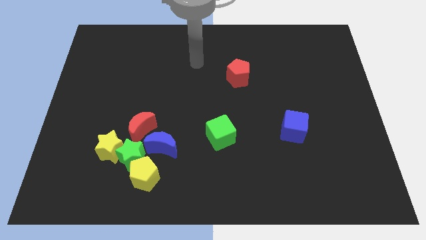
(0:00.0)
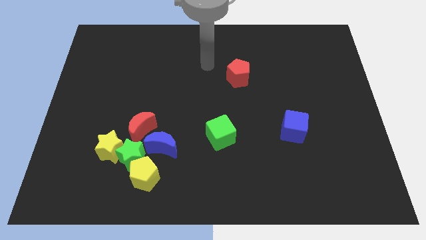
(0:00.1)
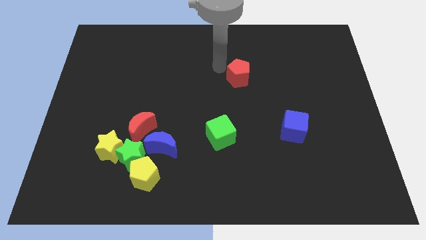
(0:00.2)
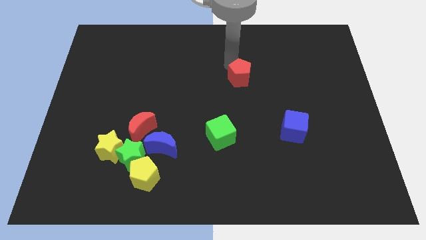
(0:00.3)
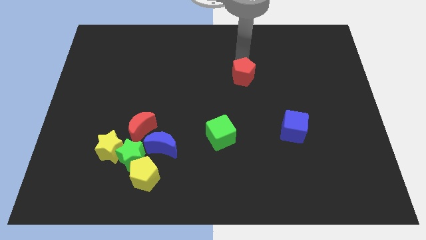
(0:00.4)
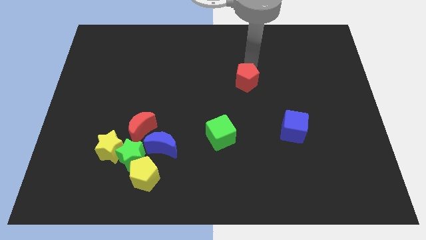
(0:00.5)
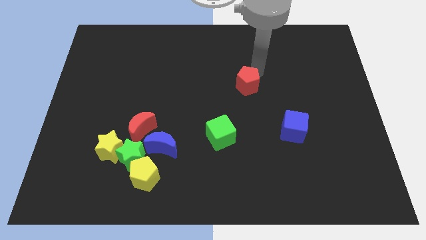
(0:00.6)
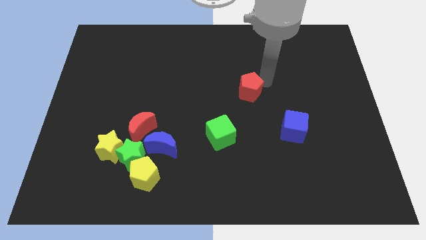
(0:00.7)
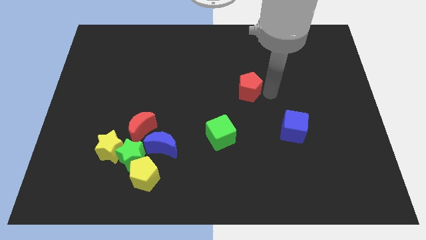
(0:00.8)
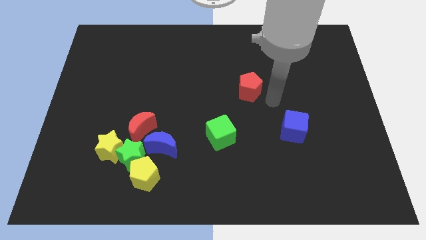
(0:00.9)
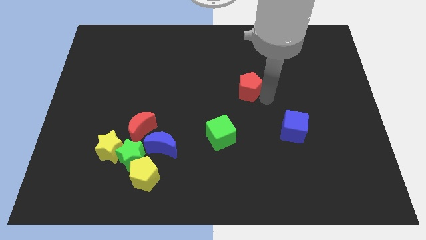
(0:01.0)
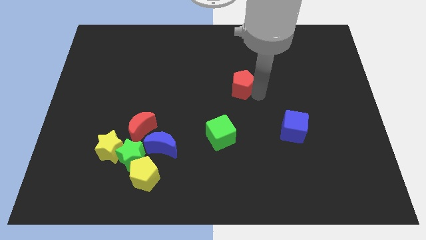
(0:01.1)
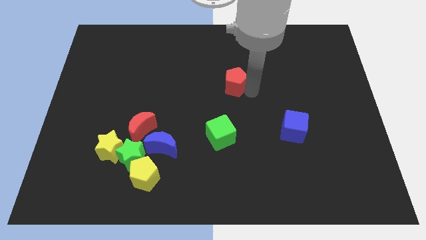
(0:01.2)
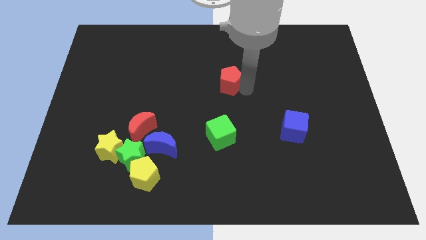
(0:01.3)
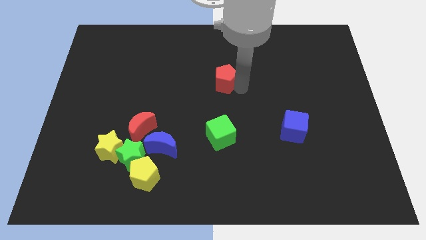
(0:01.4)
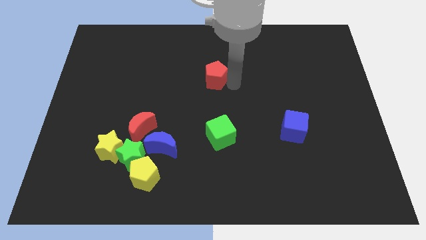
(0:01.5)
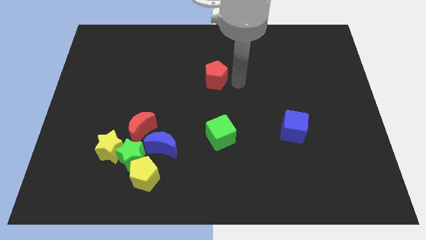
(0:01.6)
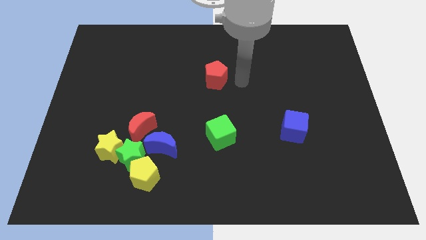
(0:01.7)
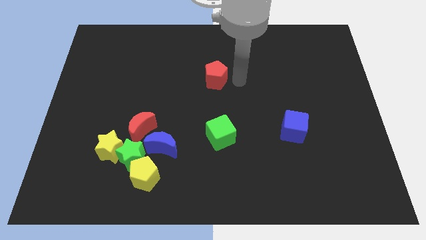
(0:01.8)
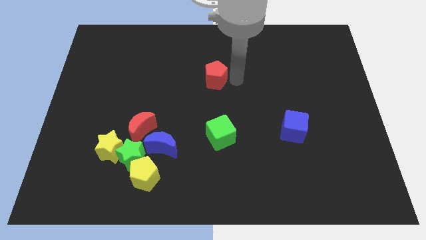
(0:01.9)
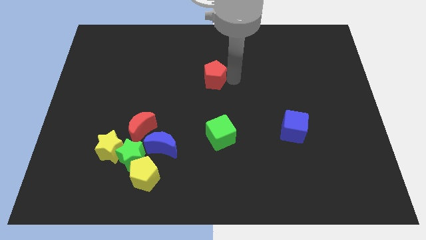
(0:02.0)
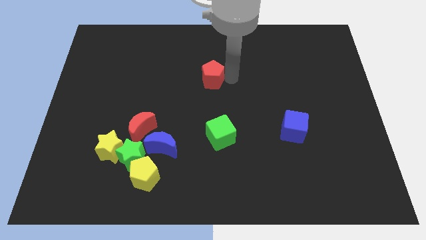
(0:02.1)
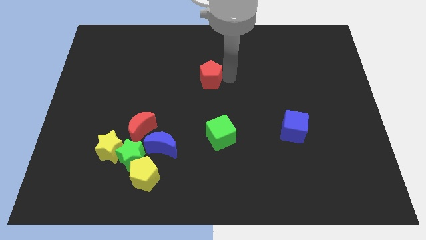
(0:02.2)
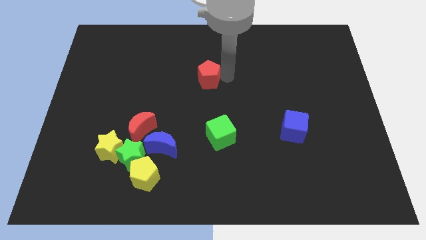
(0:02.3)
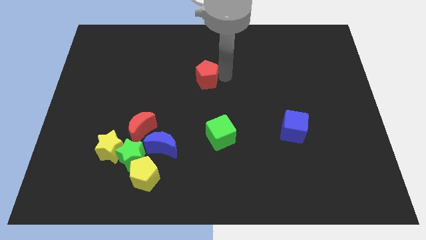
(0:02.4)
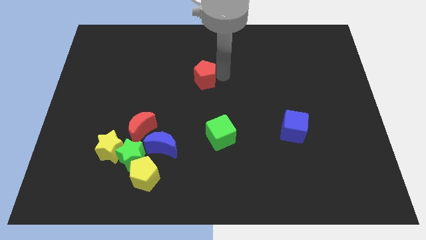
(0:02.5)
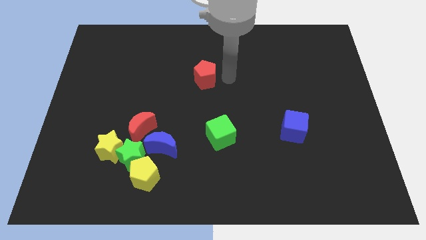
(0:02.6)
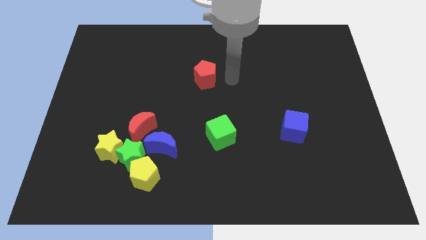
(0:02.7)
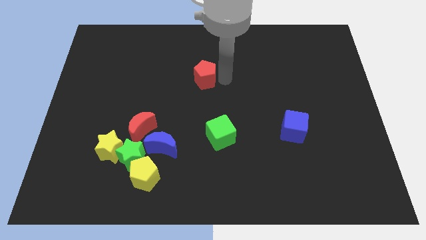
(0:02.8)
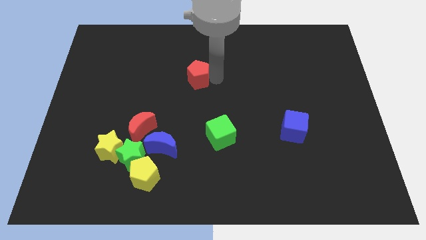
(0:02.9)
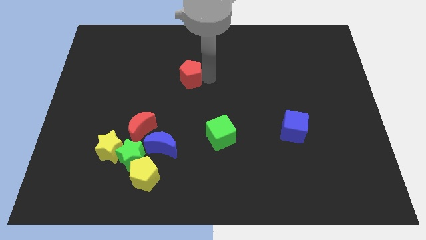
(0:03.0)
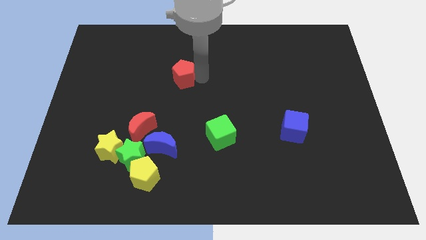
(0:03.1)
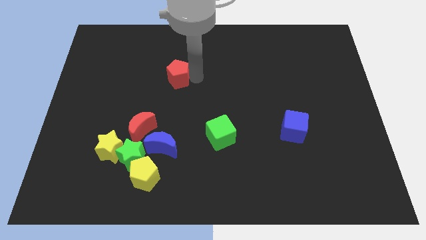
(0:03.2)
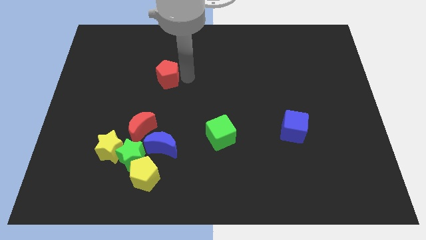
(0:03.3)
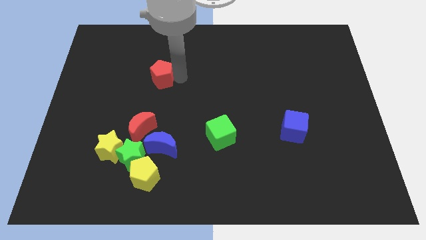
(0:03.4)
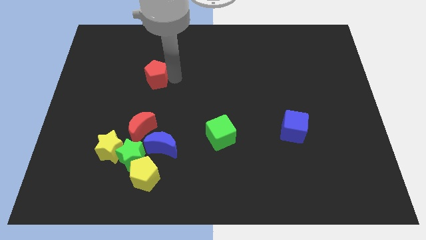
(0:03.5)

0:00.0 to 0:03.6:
slide the red pentagon left

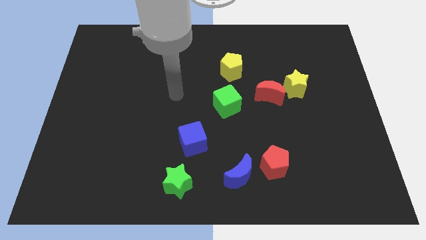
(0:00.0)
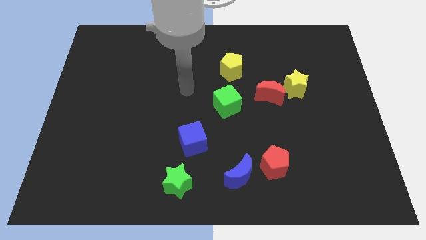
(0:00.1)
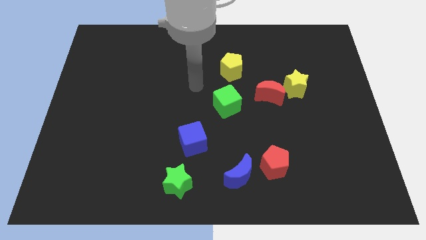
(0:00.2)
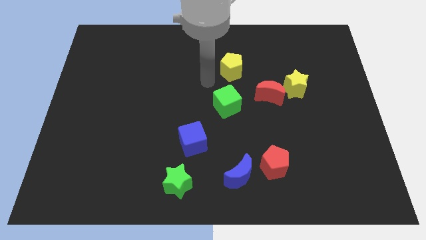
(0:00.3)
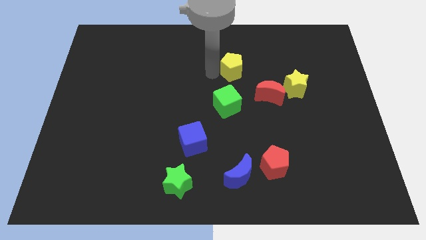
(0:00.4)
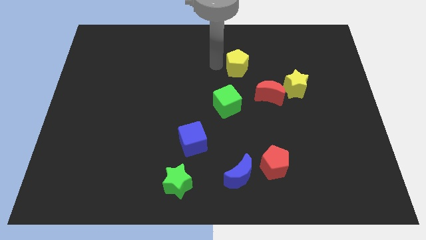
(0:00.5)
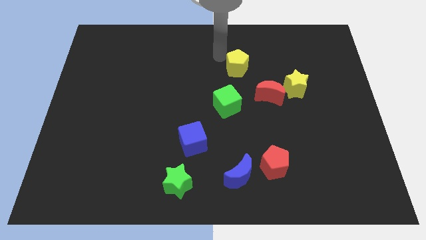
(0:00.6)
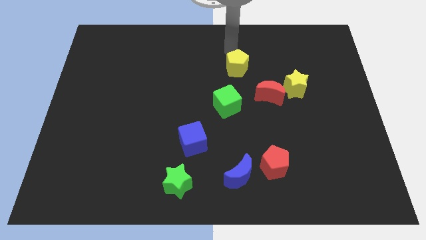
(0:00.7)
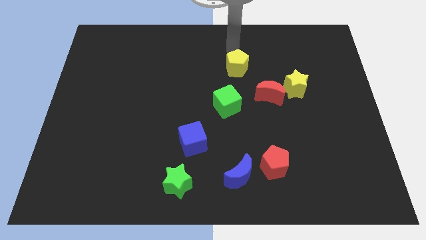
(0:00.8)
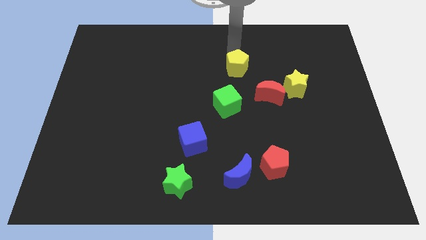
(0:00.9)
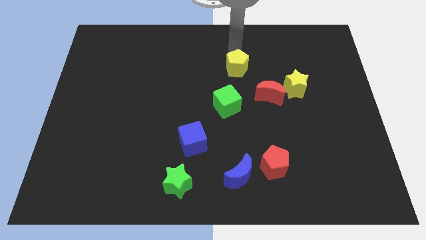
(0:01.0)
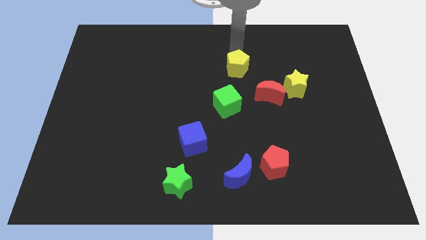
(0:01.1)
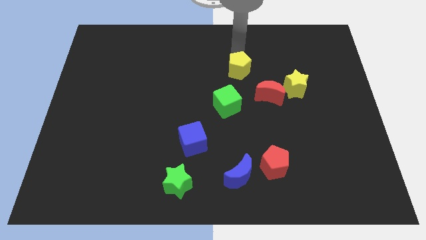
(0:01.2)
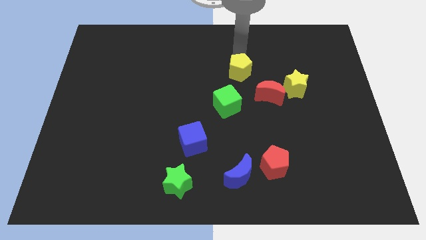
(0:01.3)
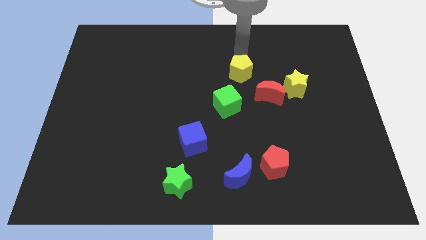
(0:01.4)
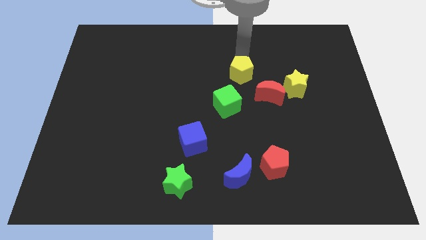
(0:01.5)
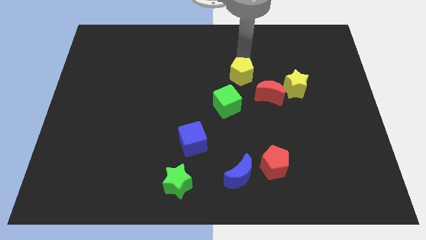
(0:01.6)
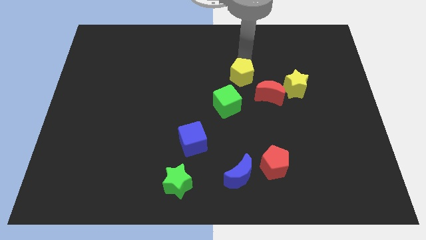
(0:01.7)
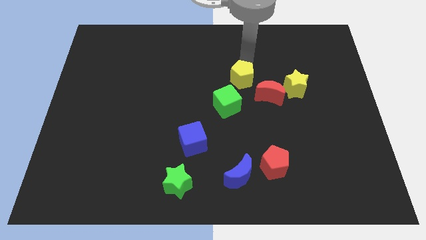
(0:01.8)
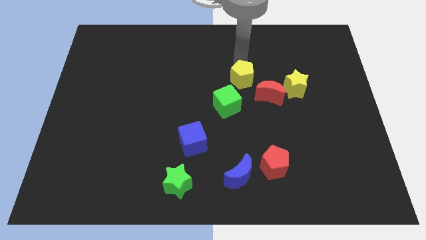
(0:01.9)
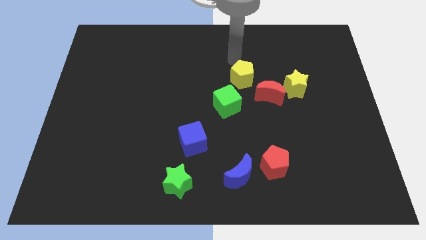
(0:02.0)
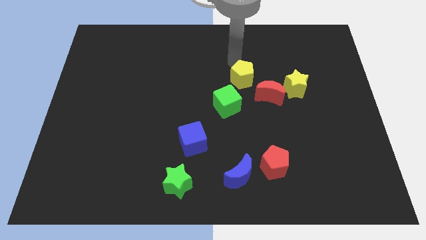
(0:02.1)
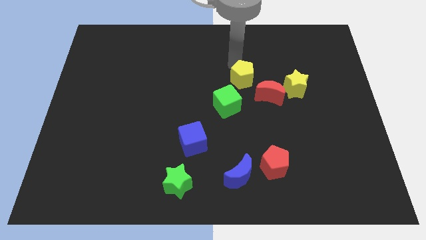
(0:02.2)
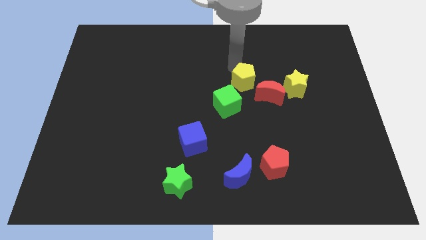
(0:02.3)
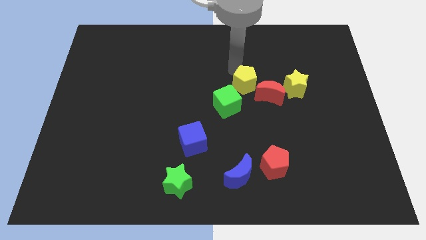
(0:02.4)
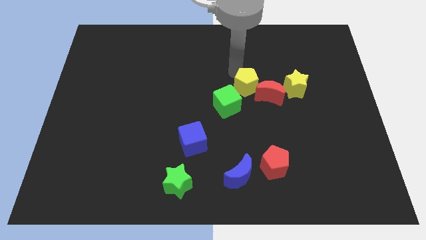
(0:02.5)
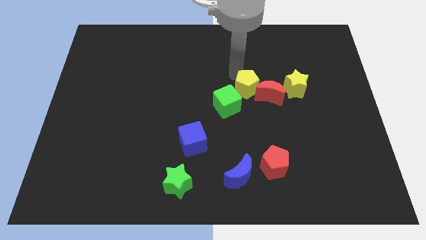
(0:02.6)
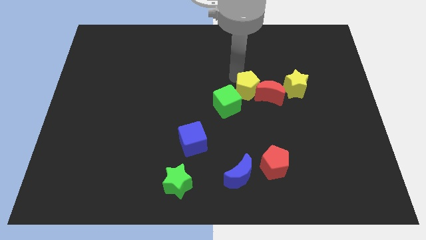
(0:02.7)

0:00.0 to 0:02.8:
slide the yellow pentagon downwards and then right a little bit

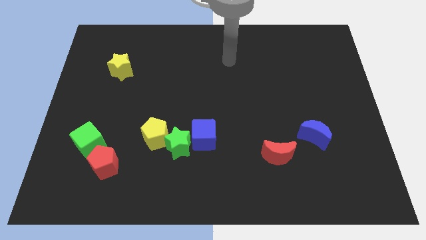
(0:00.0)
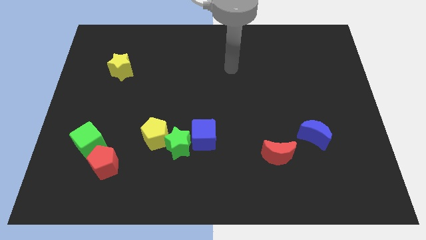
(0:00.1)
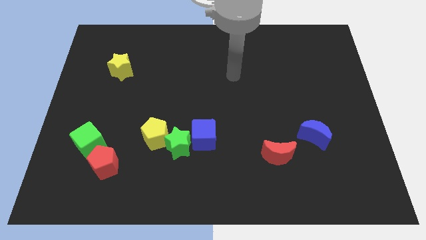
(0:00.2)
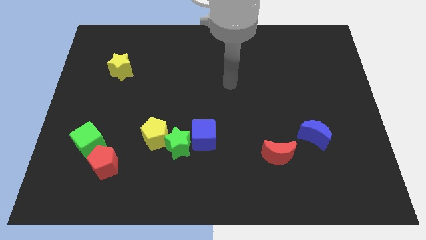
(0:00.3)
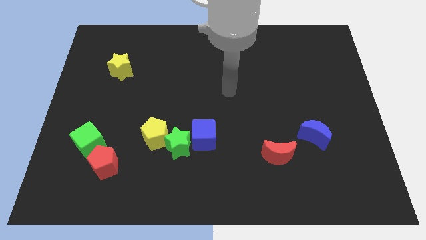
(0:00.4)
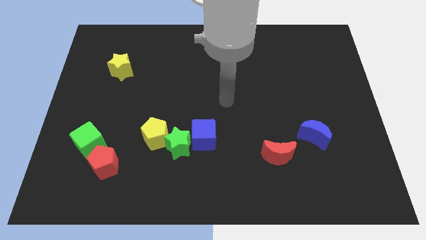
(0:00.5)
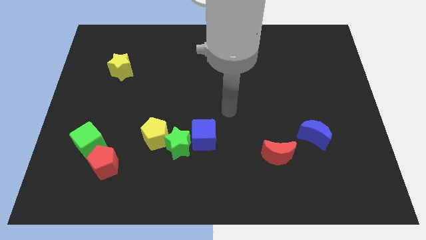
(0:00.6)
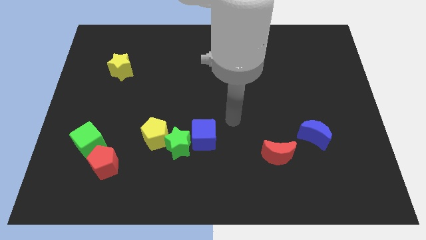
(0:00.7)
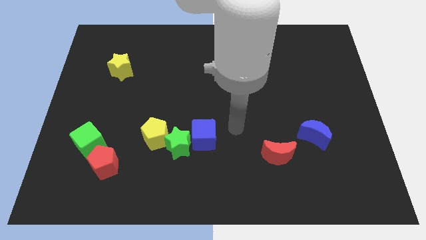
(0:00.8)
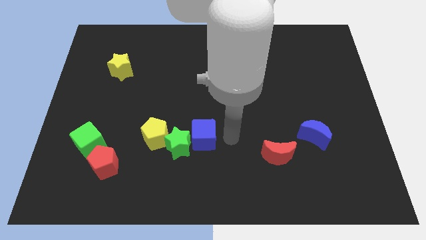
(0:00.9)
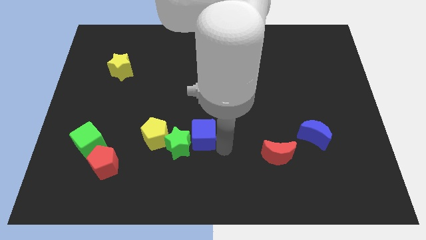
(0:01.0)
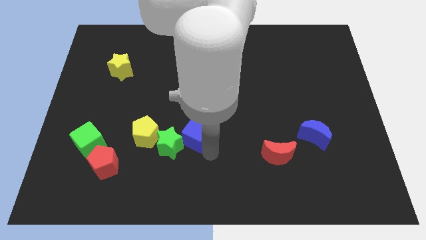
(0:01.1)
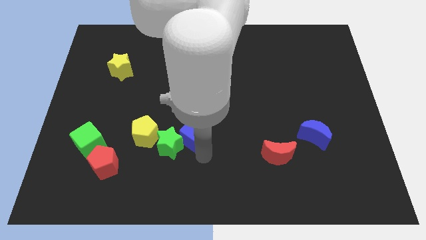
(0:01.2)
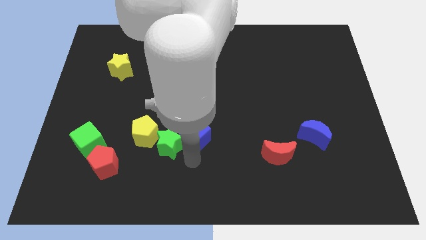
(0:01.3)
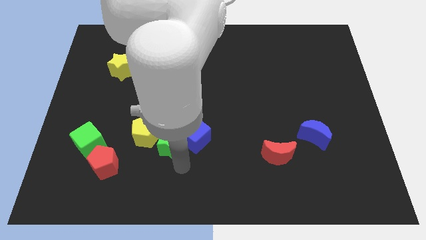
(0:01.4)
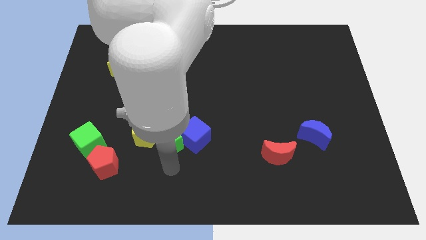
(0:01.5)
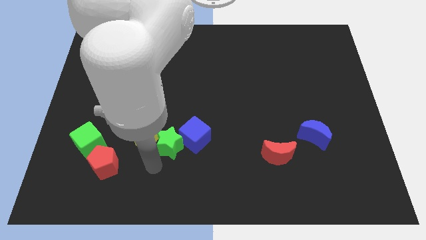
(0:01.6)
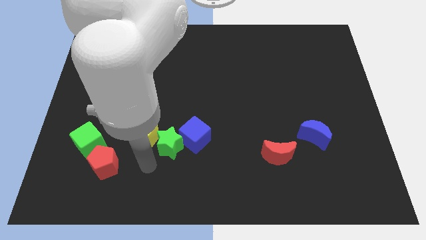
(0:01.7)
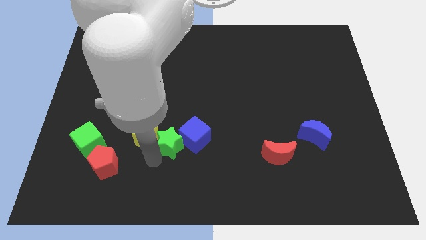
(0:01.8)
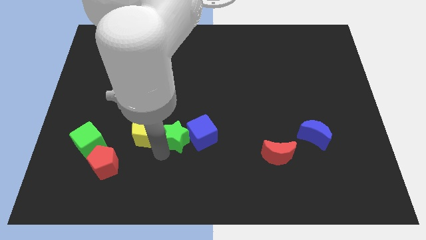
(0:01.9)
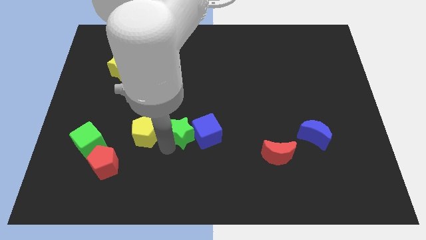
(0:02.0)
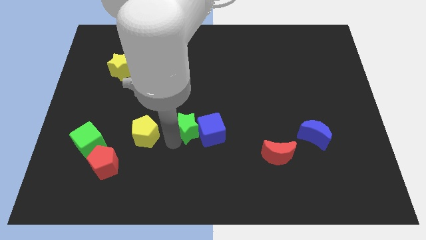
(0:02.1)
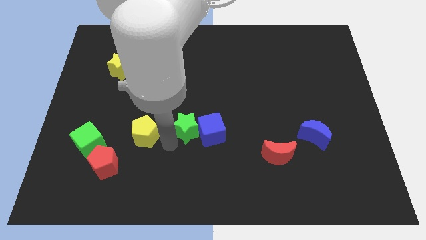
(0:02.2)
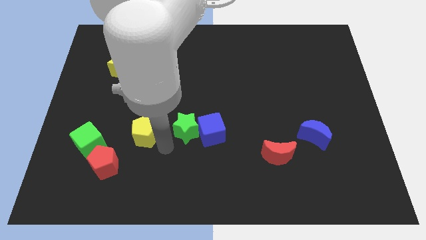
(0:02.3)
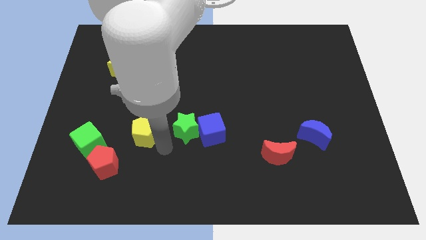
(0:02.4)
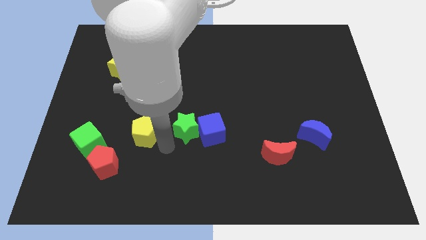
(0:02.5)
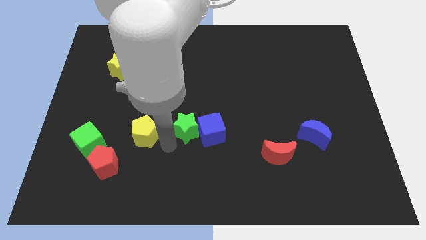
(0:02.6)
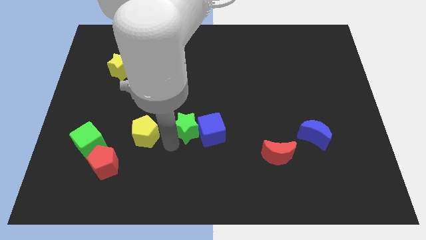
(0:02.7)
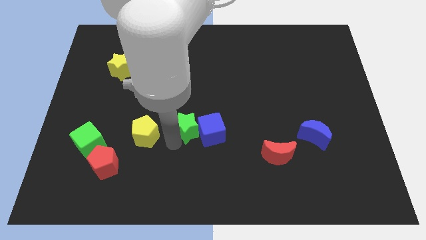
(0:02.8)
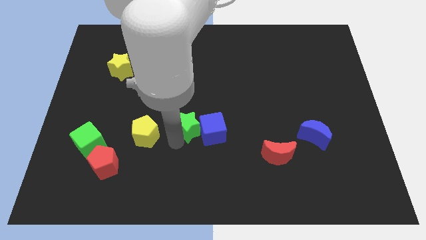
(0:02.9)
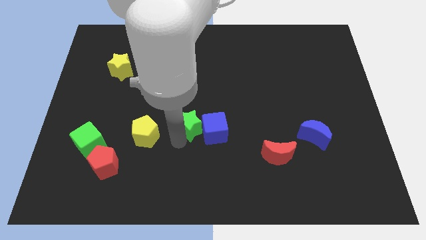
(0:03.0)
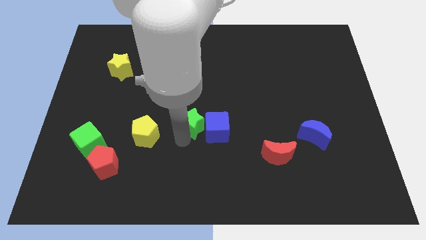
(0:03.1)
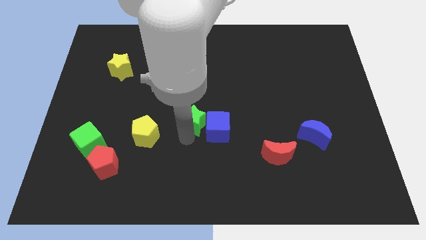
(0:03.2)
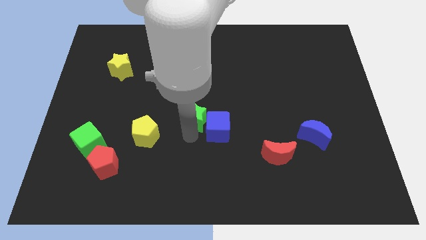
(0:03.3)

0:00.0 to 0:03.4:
move the green star upwards and right diagonally a little
